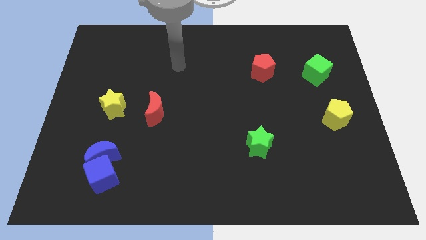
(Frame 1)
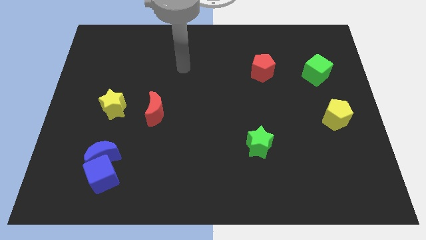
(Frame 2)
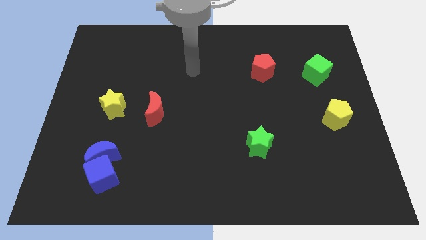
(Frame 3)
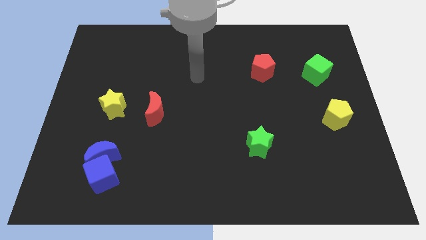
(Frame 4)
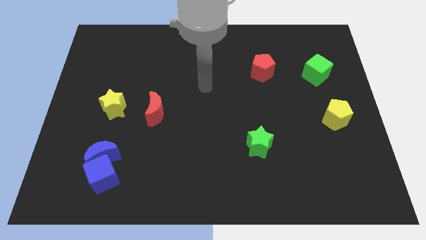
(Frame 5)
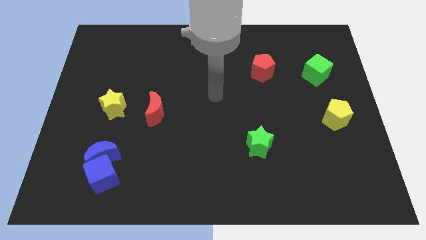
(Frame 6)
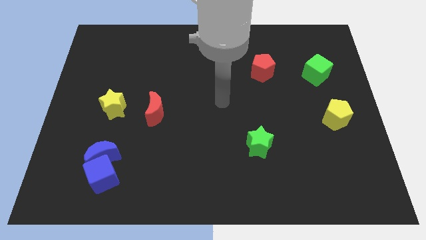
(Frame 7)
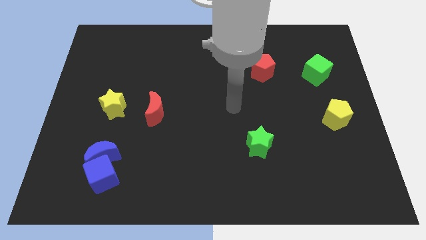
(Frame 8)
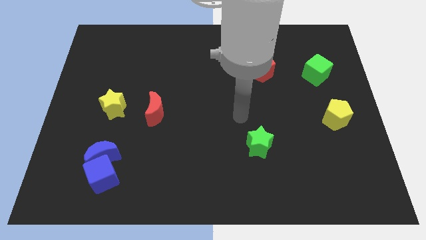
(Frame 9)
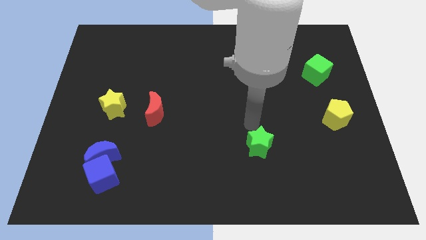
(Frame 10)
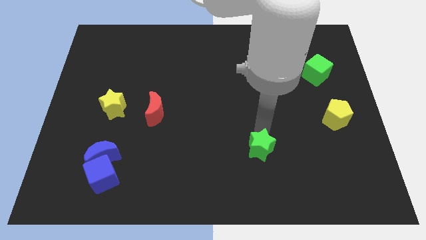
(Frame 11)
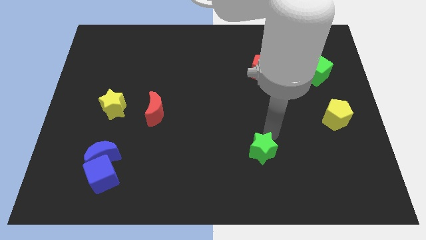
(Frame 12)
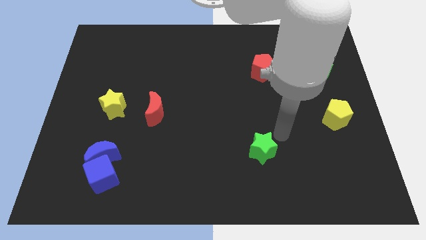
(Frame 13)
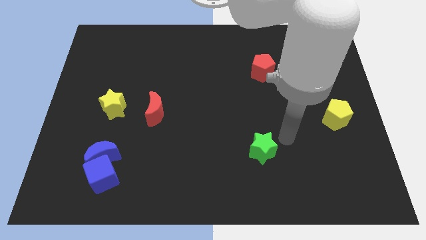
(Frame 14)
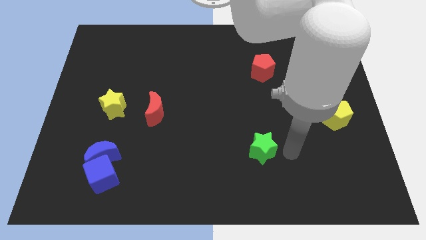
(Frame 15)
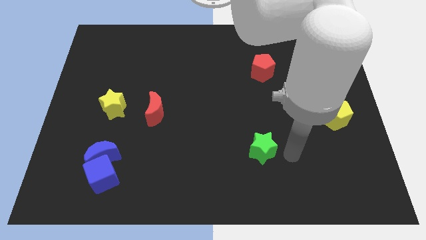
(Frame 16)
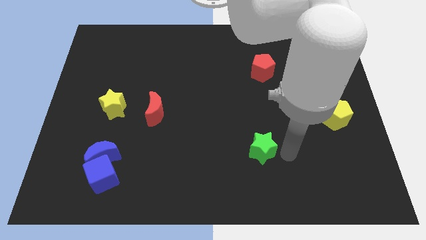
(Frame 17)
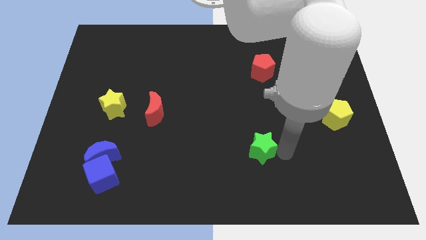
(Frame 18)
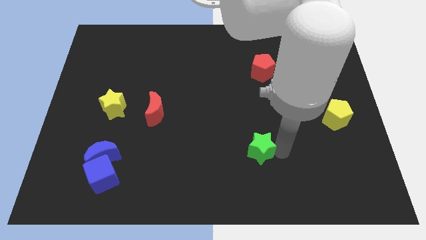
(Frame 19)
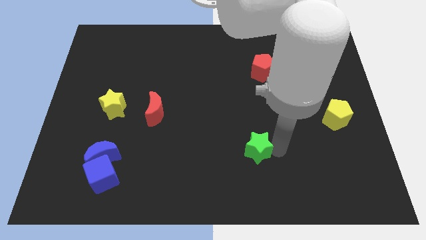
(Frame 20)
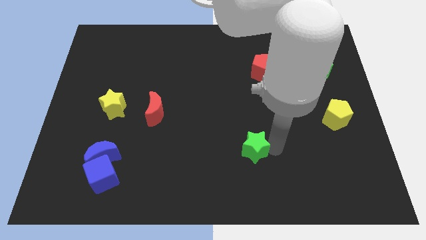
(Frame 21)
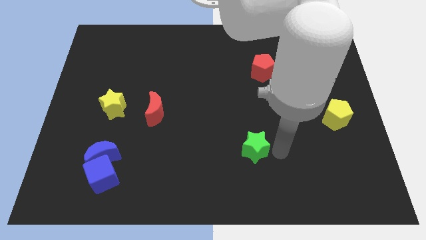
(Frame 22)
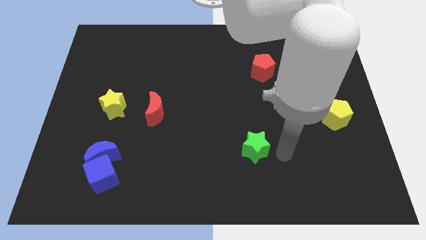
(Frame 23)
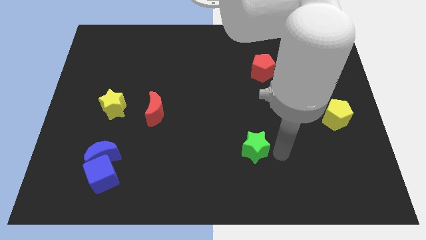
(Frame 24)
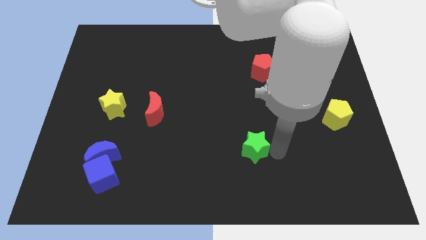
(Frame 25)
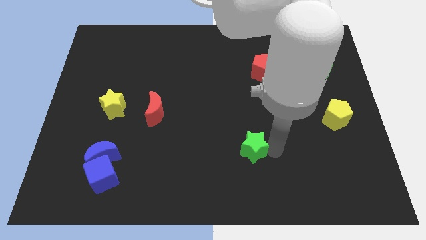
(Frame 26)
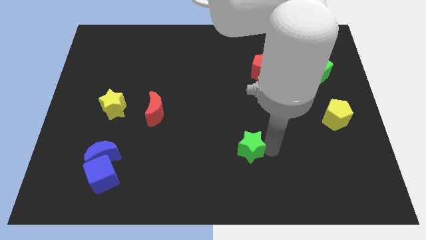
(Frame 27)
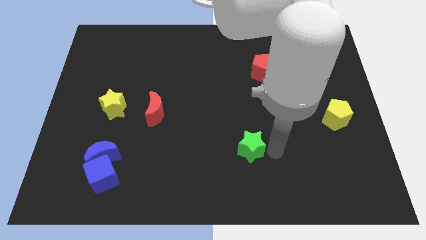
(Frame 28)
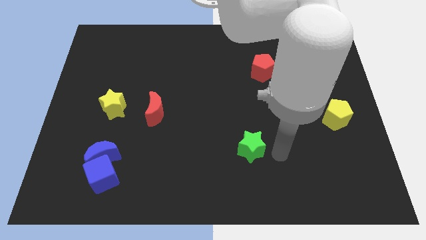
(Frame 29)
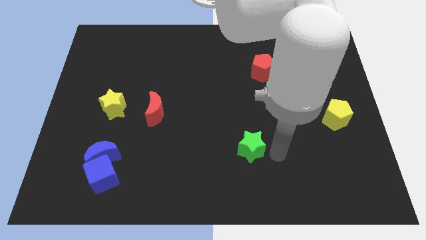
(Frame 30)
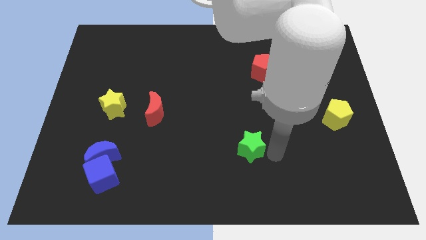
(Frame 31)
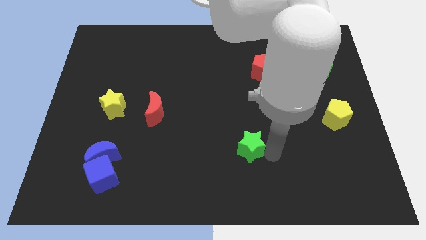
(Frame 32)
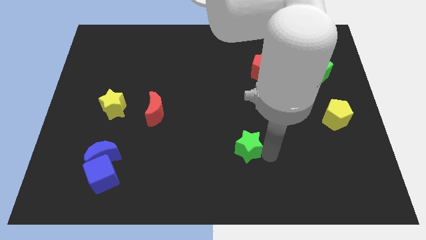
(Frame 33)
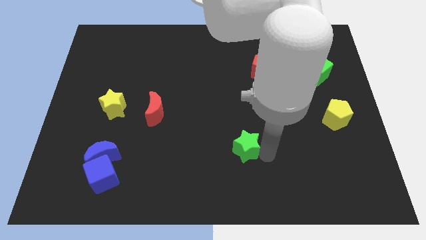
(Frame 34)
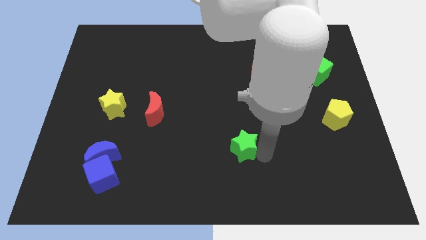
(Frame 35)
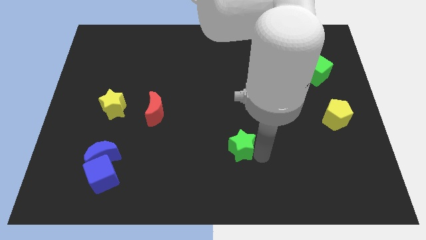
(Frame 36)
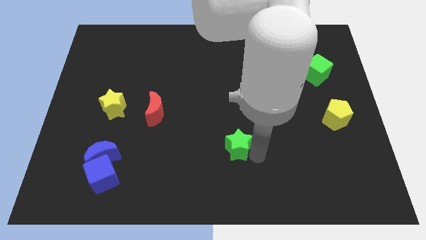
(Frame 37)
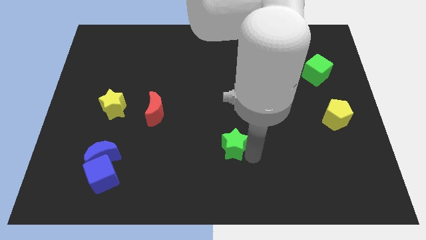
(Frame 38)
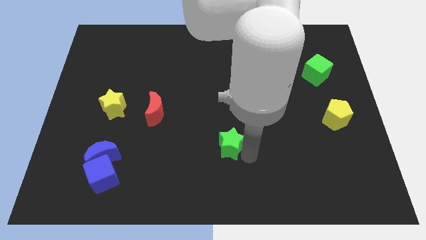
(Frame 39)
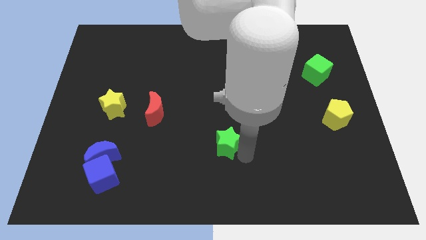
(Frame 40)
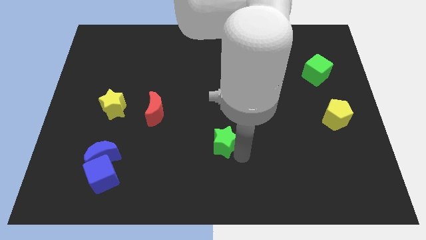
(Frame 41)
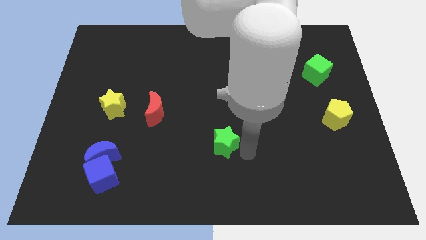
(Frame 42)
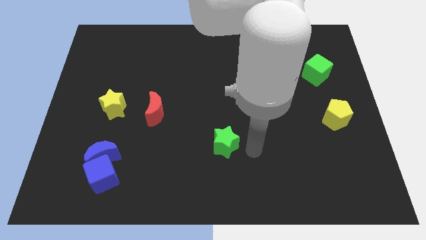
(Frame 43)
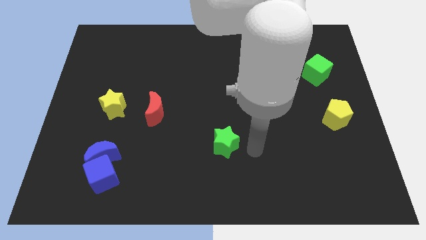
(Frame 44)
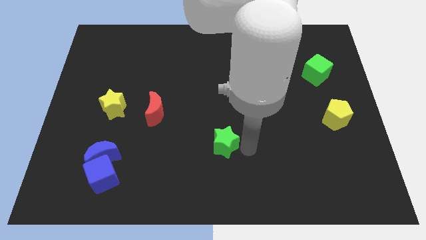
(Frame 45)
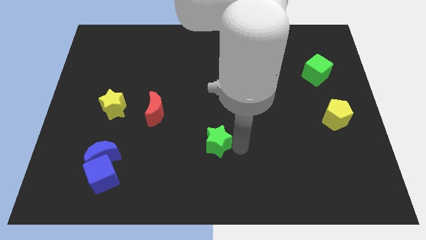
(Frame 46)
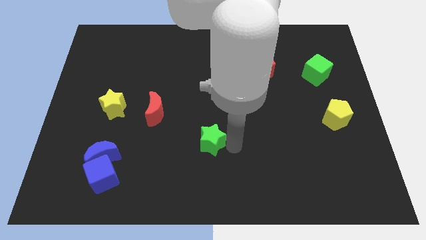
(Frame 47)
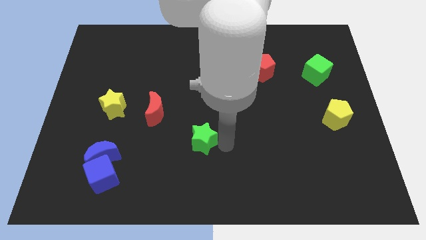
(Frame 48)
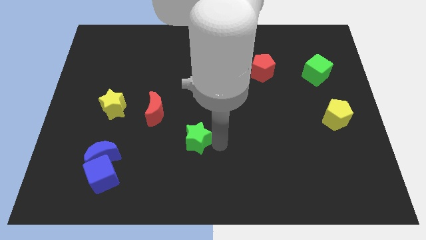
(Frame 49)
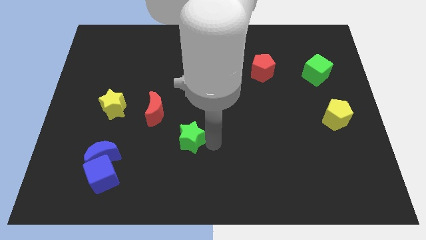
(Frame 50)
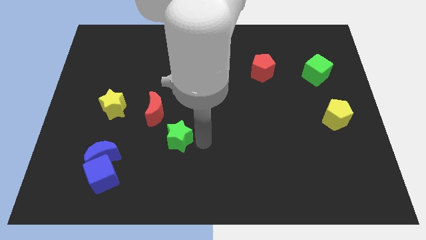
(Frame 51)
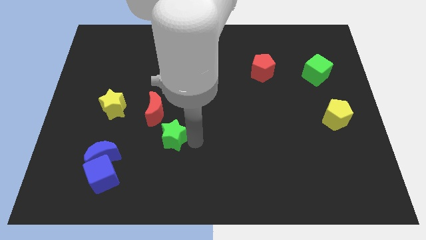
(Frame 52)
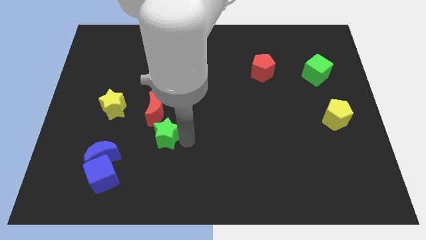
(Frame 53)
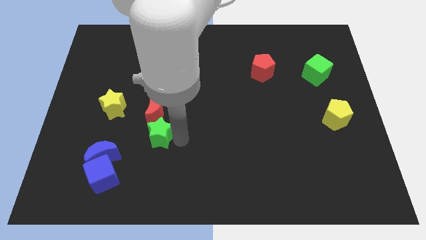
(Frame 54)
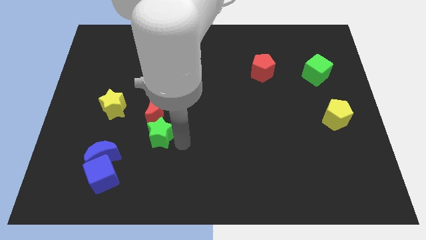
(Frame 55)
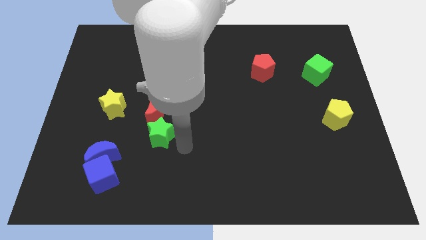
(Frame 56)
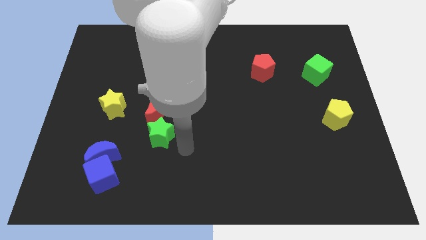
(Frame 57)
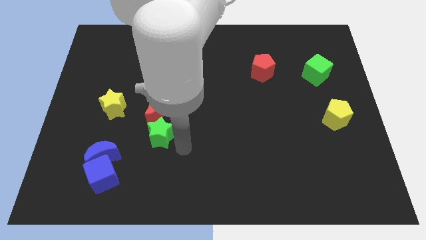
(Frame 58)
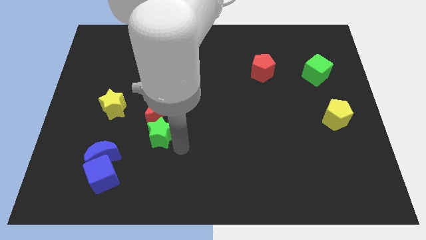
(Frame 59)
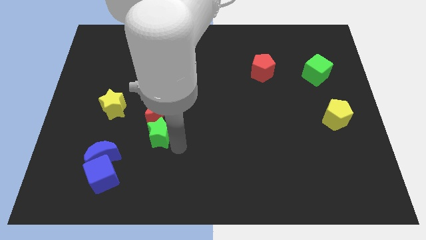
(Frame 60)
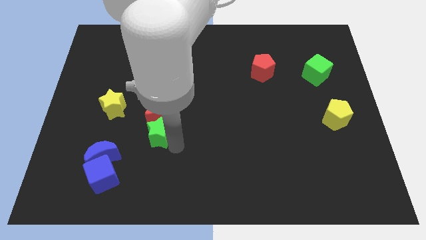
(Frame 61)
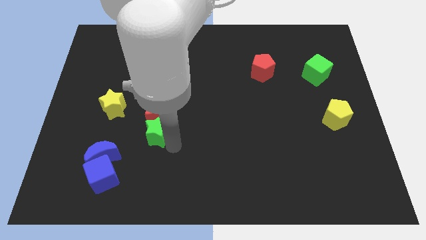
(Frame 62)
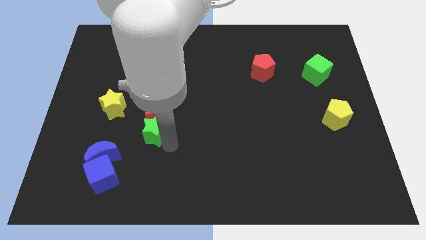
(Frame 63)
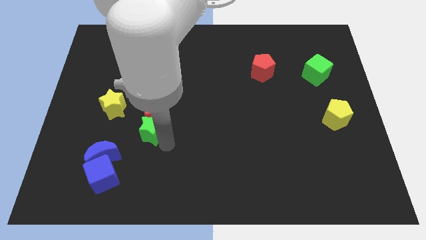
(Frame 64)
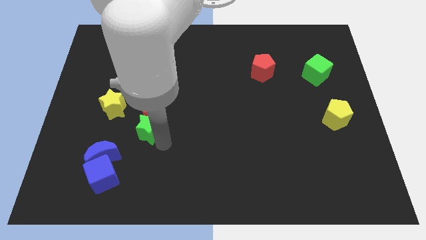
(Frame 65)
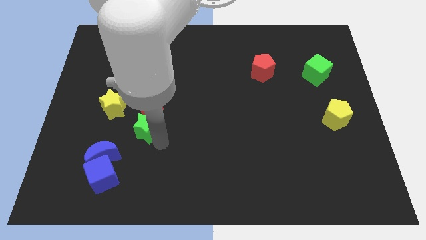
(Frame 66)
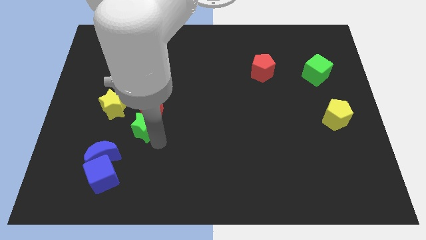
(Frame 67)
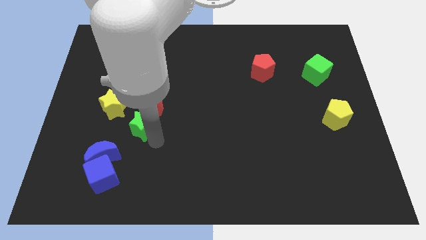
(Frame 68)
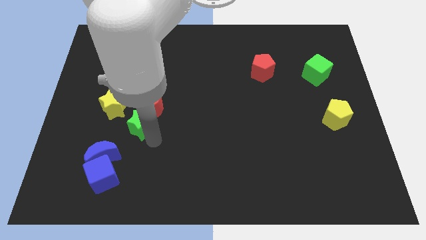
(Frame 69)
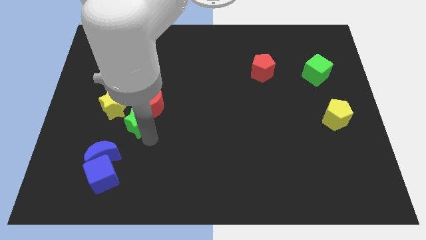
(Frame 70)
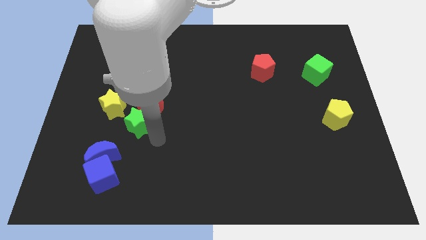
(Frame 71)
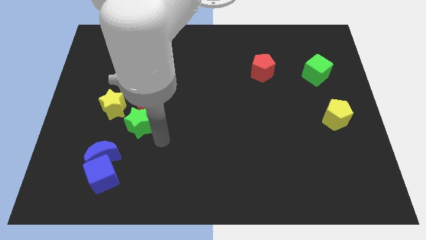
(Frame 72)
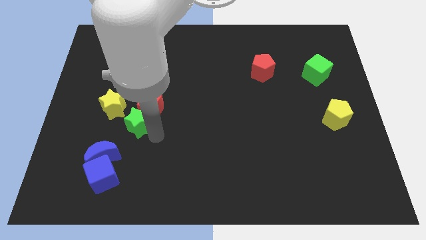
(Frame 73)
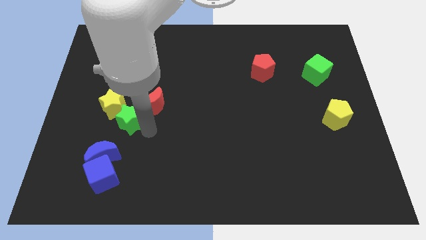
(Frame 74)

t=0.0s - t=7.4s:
slide the green star to the yellow star
